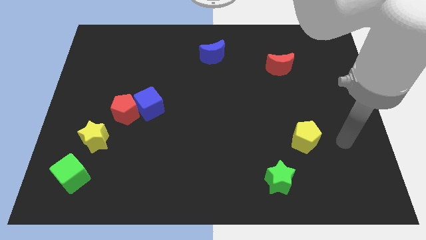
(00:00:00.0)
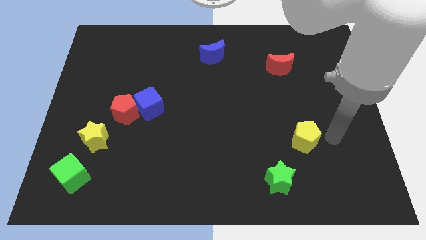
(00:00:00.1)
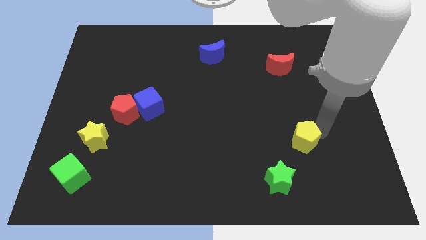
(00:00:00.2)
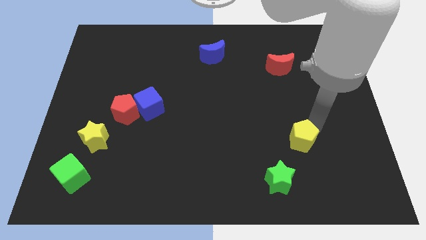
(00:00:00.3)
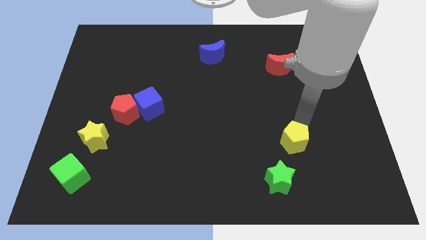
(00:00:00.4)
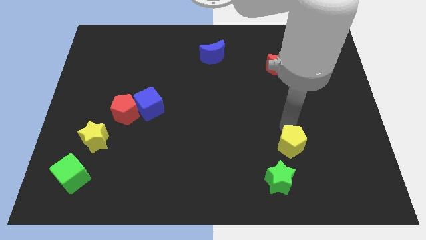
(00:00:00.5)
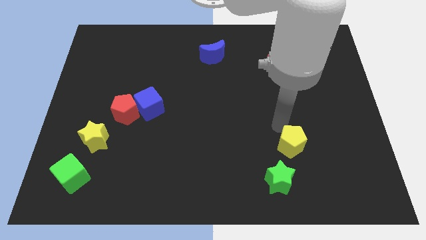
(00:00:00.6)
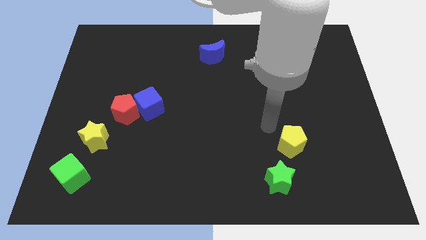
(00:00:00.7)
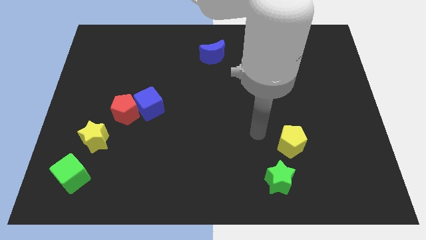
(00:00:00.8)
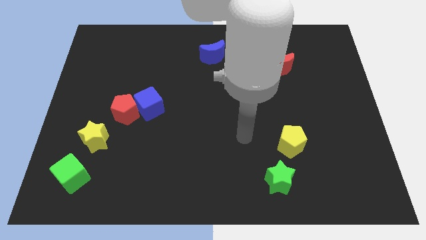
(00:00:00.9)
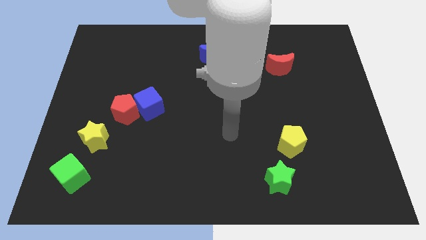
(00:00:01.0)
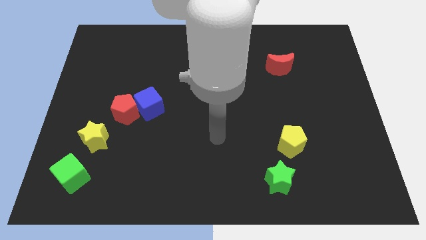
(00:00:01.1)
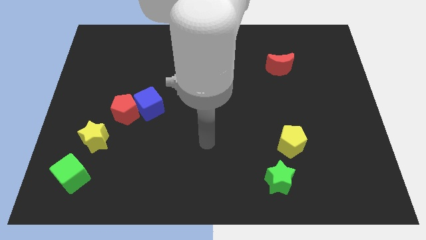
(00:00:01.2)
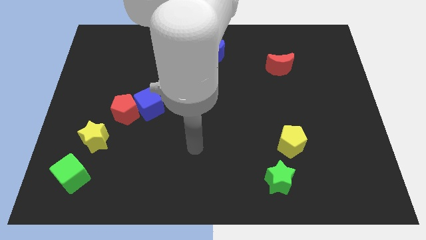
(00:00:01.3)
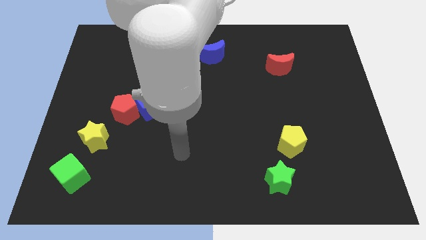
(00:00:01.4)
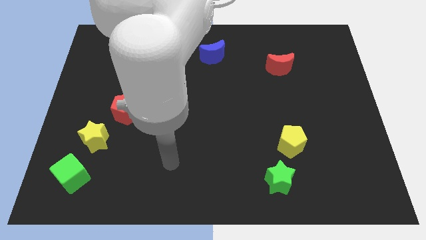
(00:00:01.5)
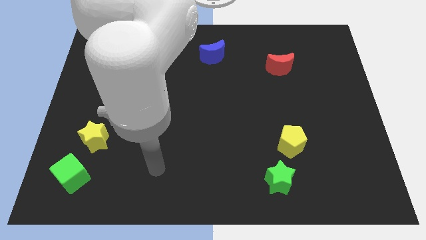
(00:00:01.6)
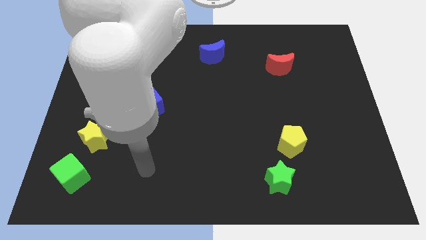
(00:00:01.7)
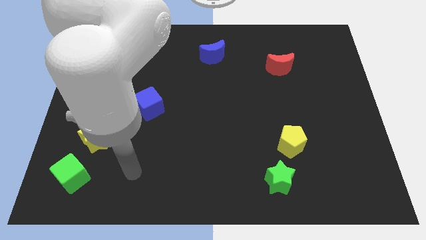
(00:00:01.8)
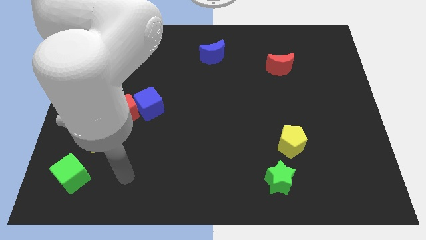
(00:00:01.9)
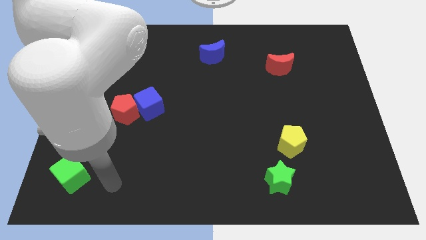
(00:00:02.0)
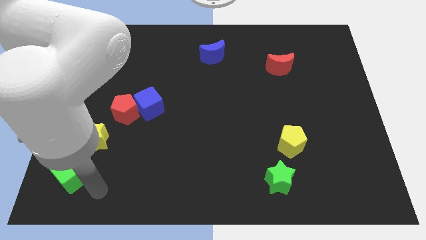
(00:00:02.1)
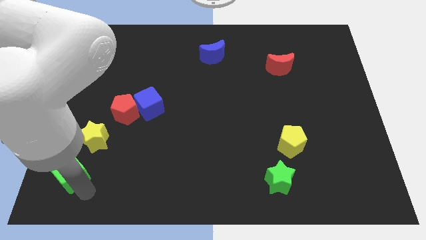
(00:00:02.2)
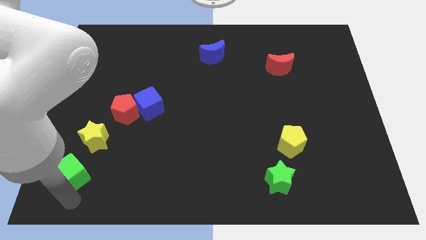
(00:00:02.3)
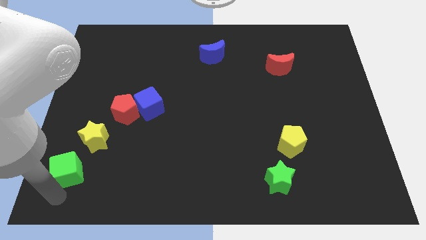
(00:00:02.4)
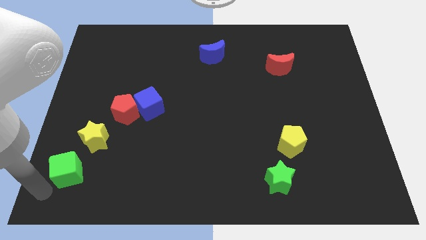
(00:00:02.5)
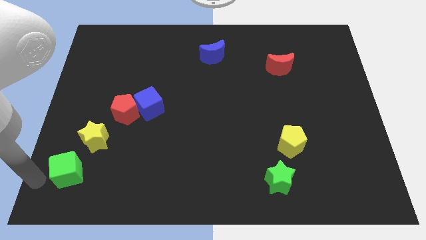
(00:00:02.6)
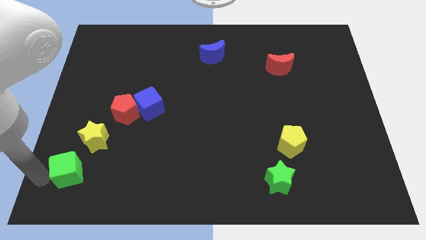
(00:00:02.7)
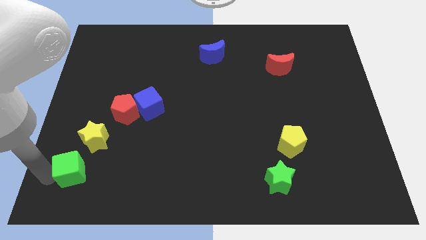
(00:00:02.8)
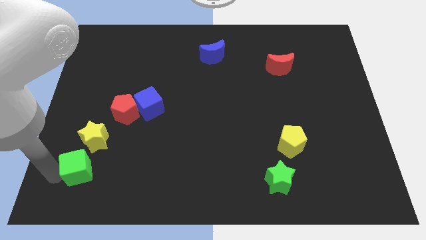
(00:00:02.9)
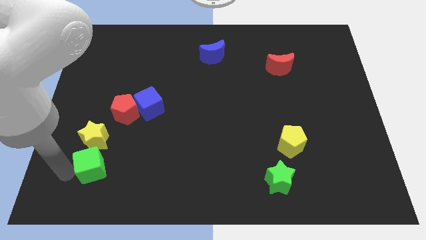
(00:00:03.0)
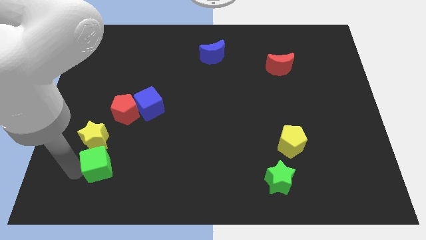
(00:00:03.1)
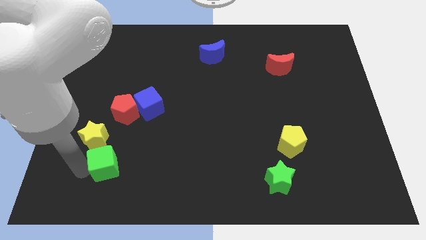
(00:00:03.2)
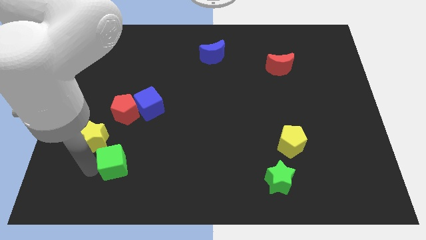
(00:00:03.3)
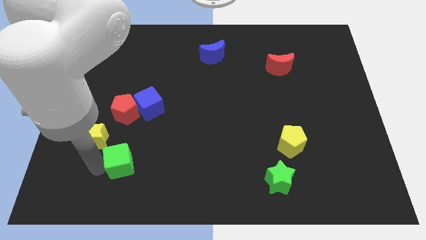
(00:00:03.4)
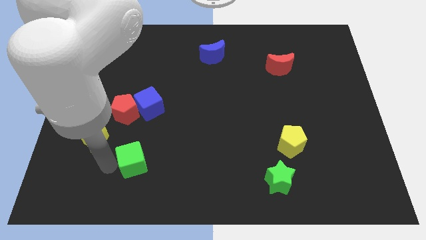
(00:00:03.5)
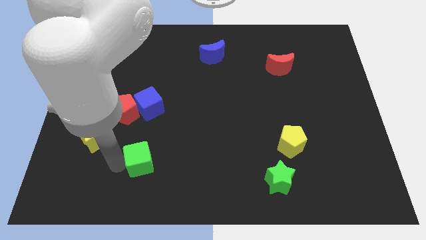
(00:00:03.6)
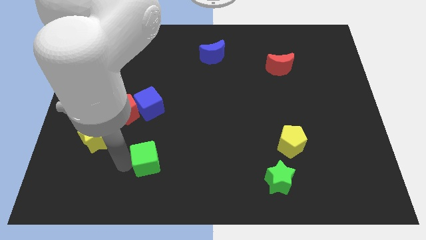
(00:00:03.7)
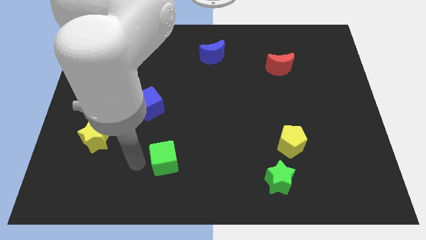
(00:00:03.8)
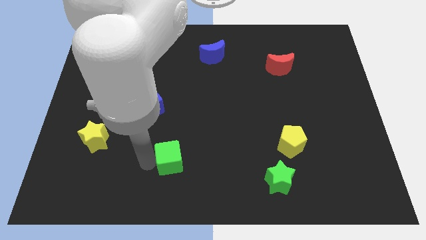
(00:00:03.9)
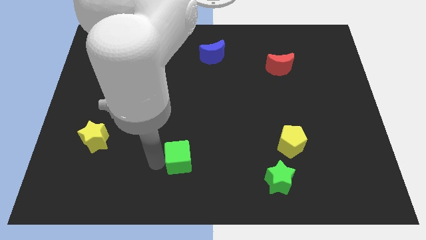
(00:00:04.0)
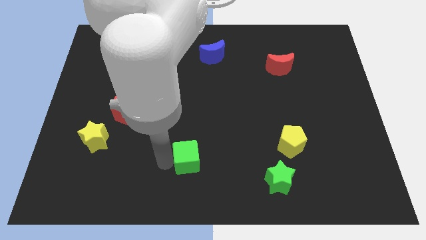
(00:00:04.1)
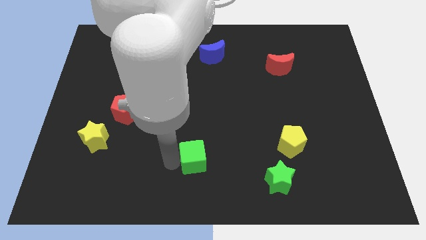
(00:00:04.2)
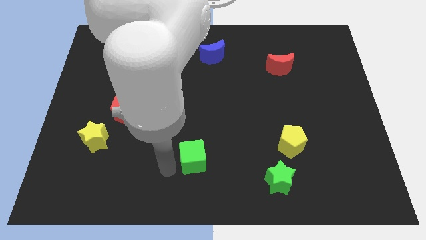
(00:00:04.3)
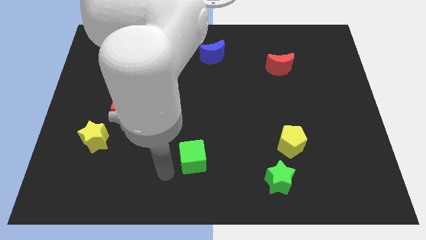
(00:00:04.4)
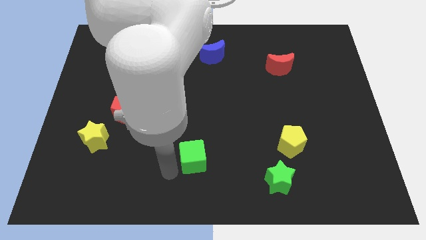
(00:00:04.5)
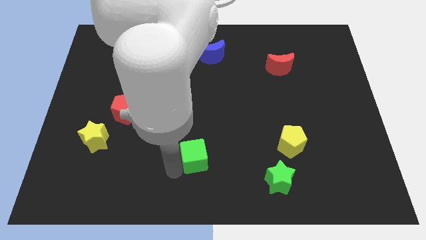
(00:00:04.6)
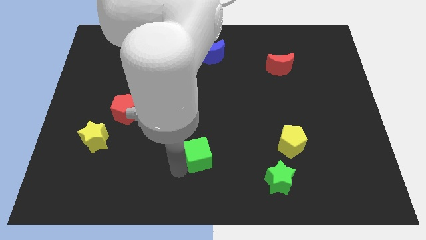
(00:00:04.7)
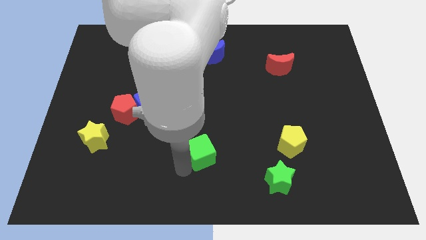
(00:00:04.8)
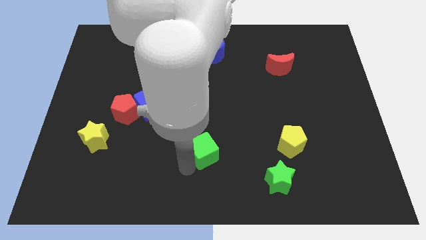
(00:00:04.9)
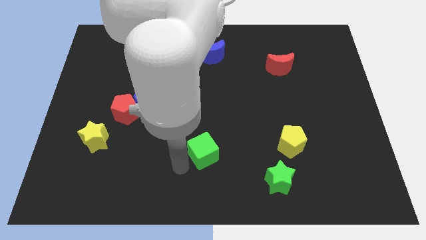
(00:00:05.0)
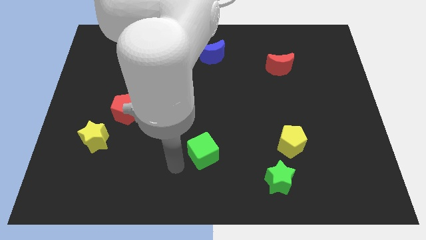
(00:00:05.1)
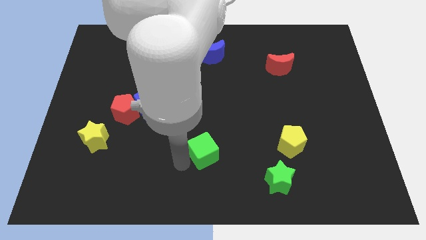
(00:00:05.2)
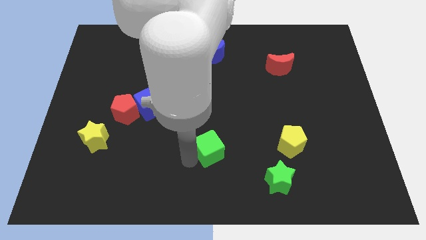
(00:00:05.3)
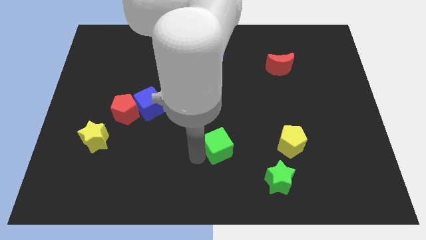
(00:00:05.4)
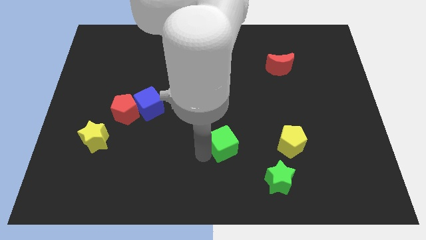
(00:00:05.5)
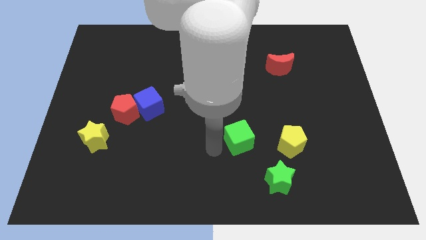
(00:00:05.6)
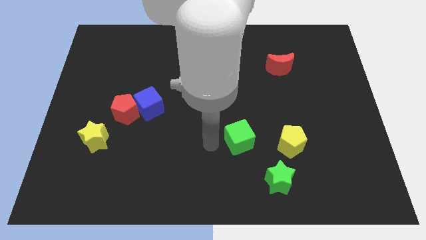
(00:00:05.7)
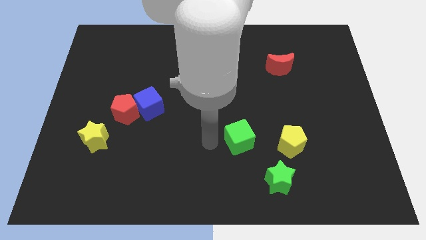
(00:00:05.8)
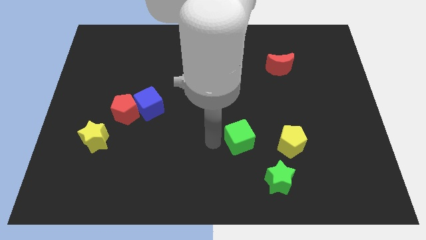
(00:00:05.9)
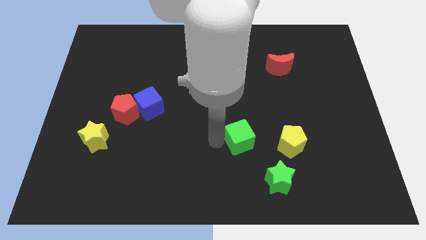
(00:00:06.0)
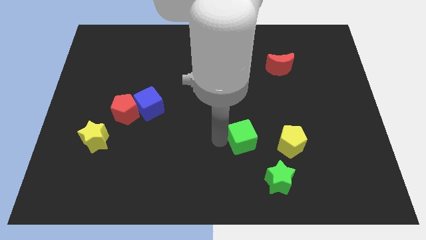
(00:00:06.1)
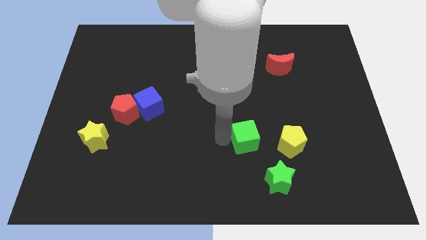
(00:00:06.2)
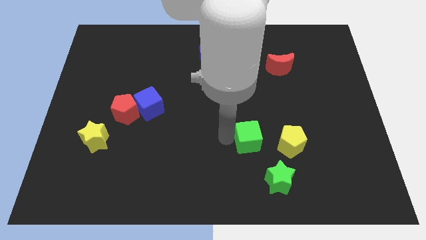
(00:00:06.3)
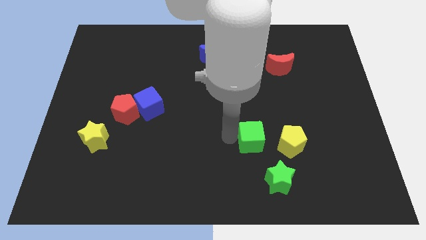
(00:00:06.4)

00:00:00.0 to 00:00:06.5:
slide the green cube to the top side of the green star

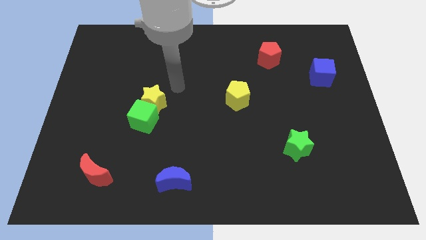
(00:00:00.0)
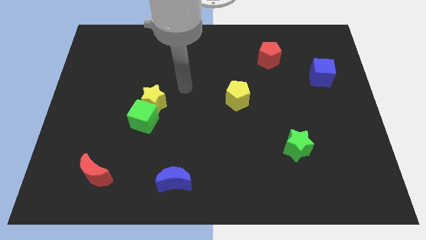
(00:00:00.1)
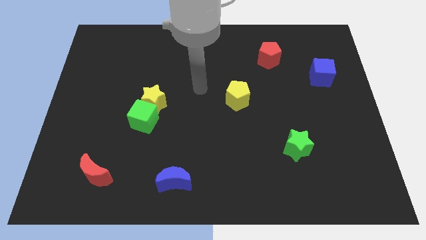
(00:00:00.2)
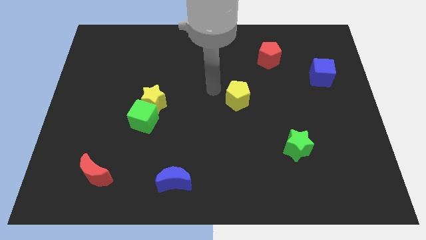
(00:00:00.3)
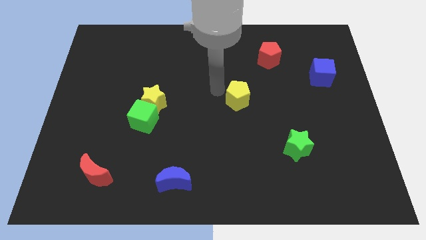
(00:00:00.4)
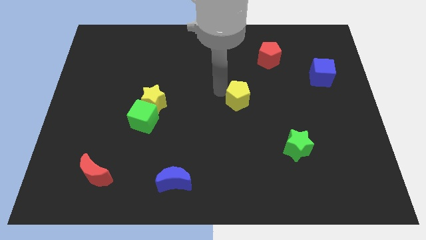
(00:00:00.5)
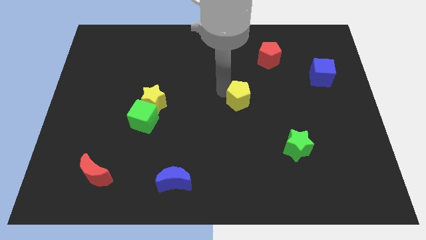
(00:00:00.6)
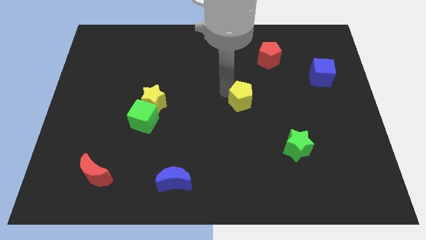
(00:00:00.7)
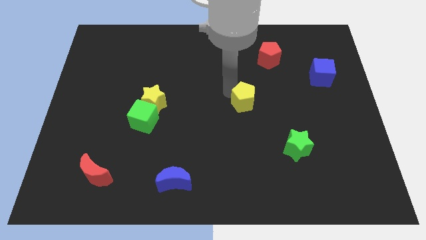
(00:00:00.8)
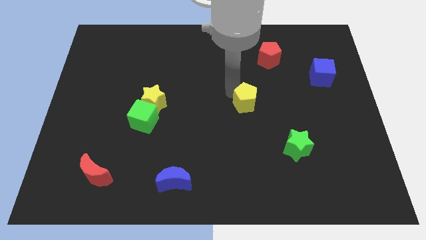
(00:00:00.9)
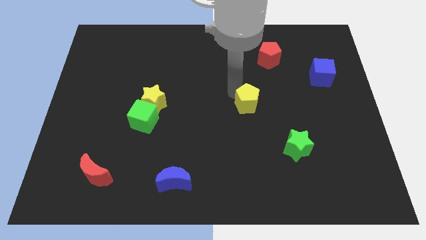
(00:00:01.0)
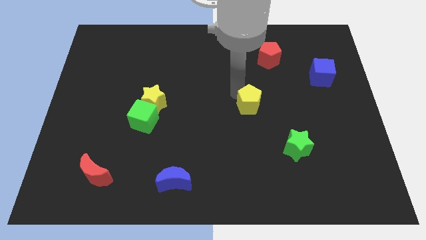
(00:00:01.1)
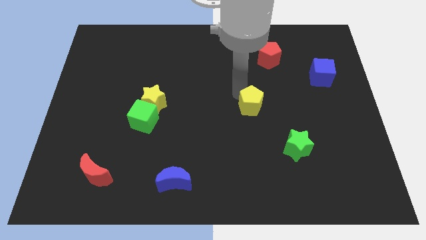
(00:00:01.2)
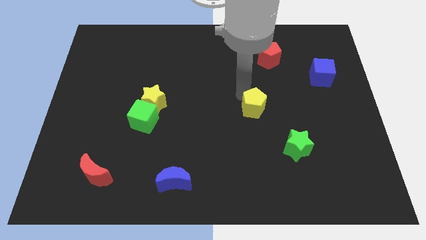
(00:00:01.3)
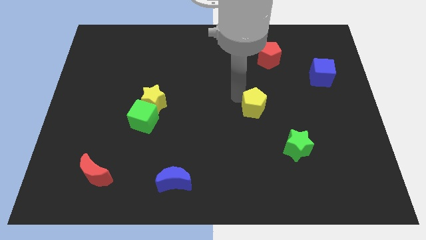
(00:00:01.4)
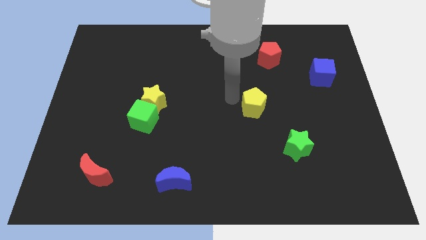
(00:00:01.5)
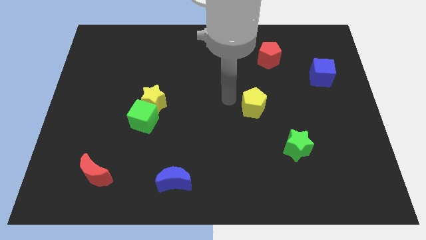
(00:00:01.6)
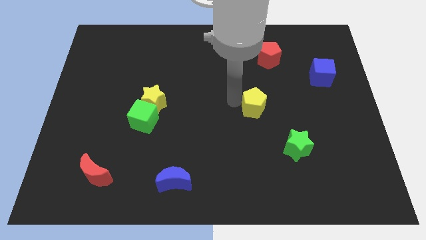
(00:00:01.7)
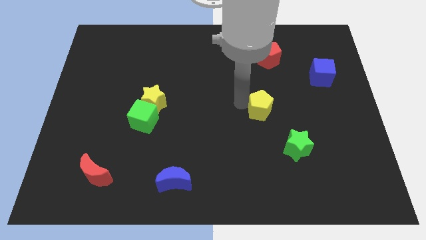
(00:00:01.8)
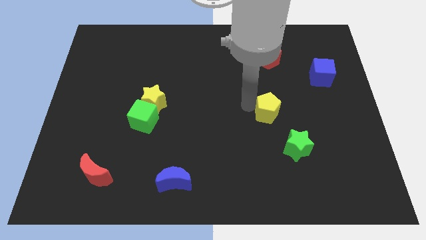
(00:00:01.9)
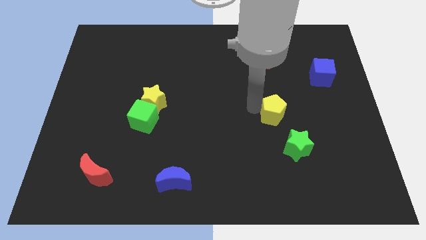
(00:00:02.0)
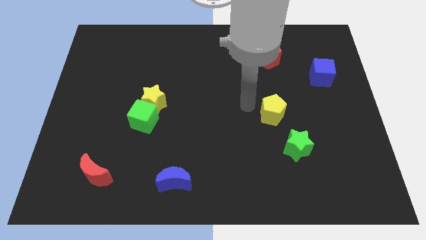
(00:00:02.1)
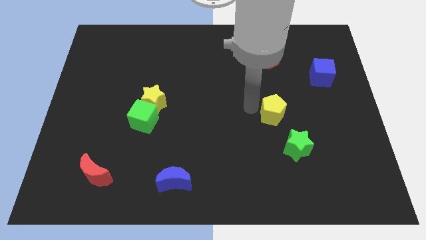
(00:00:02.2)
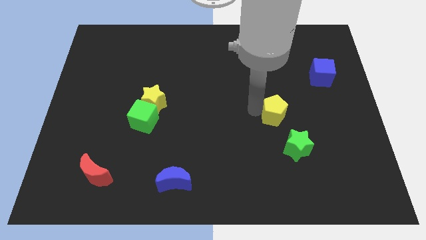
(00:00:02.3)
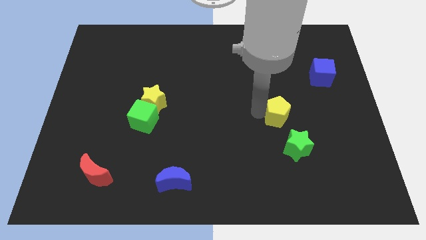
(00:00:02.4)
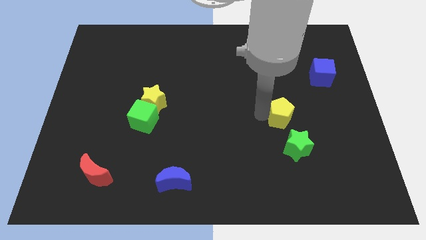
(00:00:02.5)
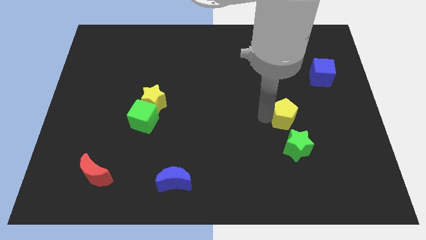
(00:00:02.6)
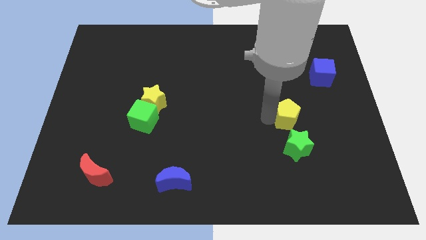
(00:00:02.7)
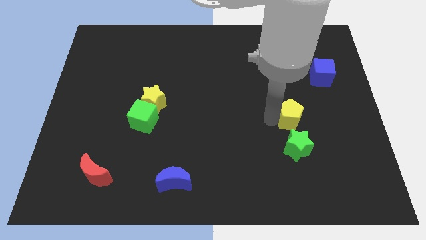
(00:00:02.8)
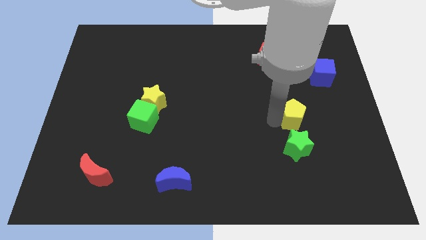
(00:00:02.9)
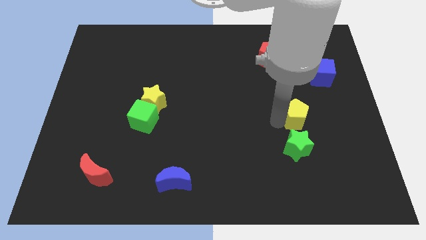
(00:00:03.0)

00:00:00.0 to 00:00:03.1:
put the yellow pentagon to the top right side of the green star
